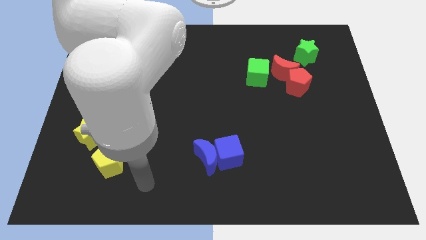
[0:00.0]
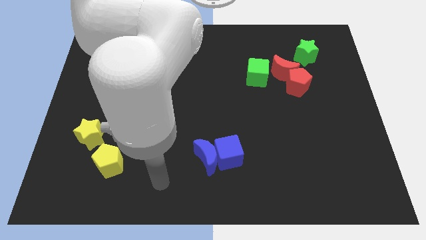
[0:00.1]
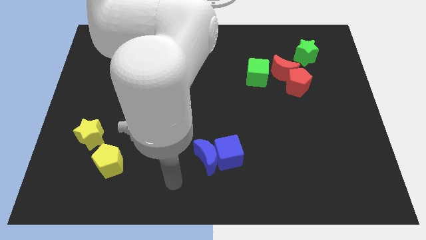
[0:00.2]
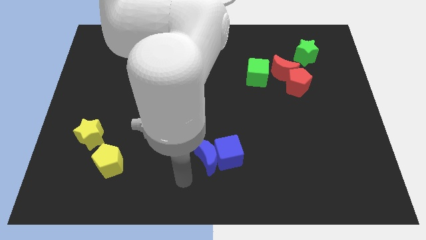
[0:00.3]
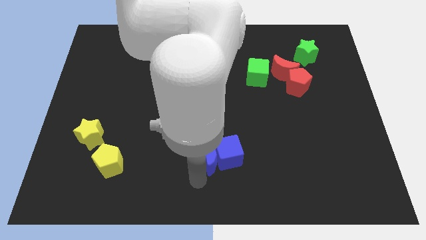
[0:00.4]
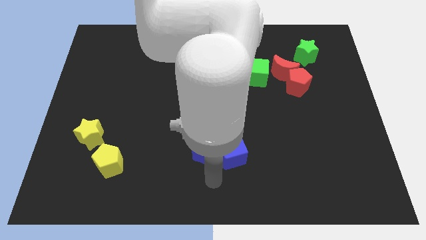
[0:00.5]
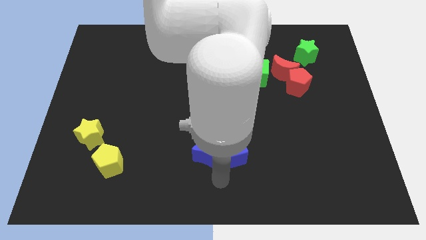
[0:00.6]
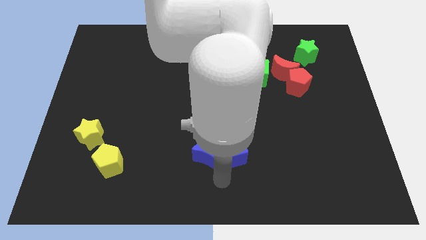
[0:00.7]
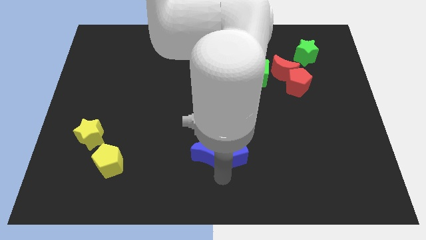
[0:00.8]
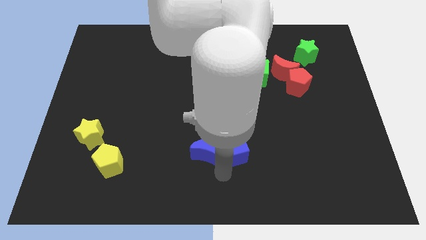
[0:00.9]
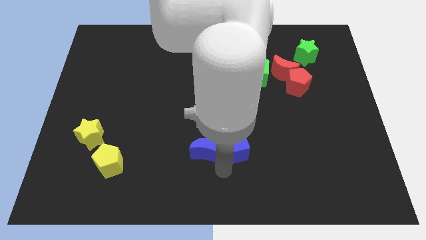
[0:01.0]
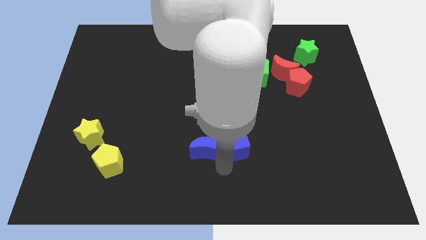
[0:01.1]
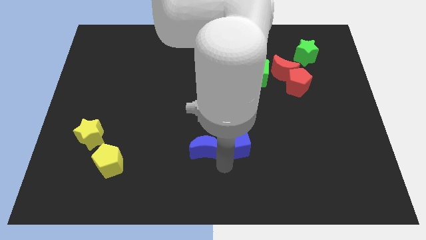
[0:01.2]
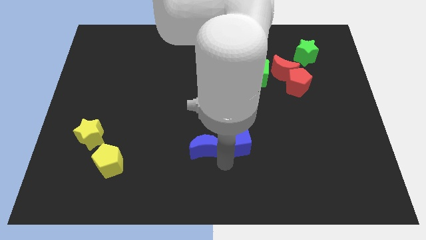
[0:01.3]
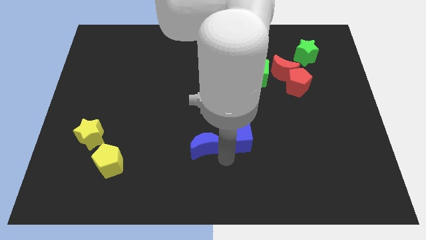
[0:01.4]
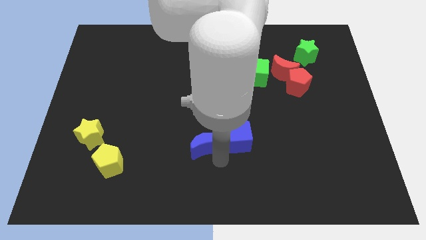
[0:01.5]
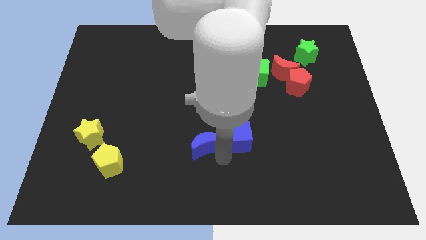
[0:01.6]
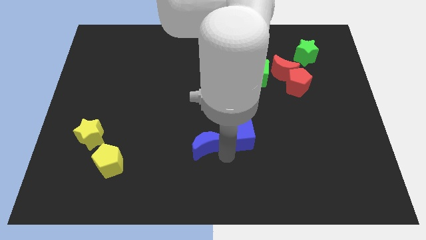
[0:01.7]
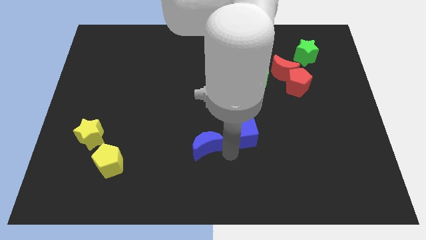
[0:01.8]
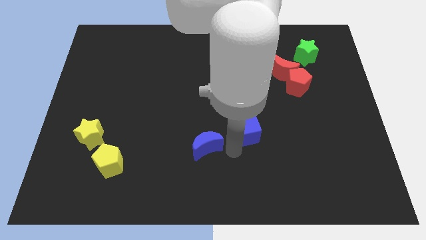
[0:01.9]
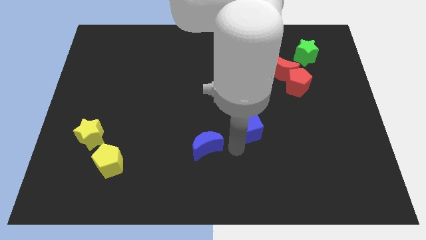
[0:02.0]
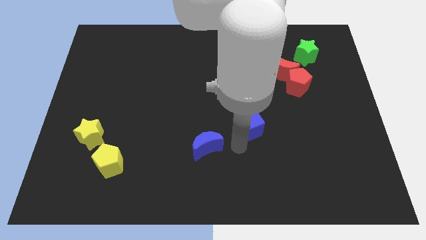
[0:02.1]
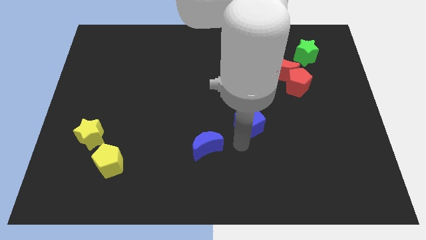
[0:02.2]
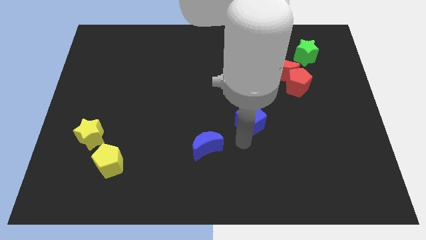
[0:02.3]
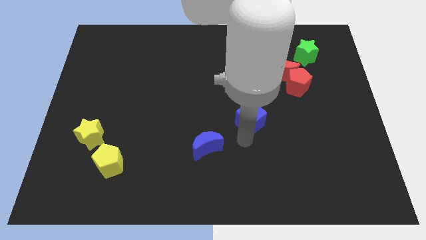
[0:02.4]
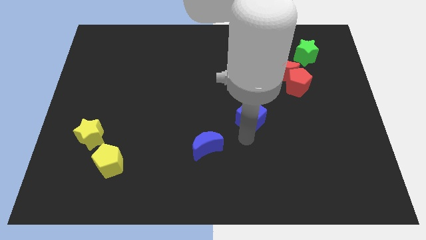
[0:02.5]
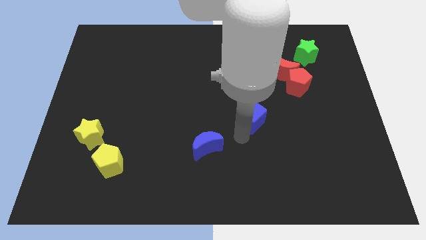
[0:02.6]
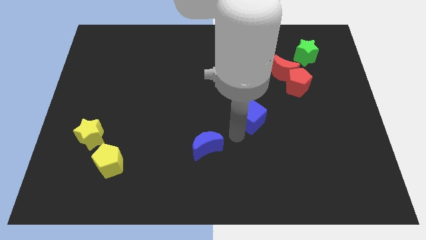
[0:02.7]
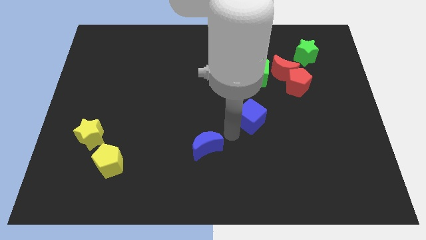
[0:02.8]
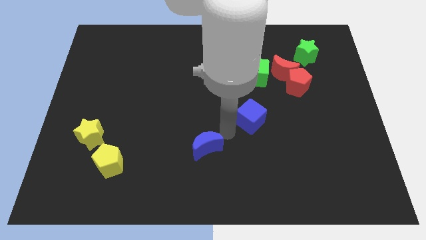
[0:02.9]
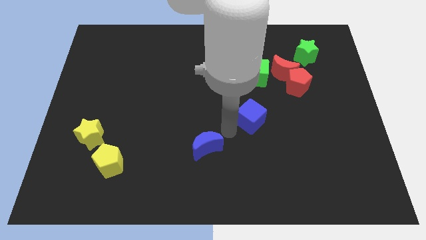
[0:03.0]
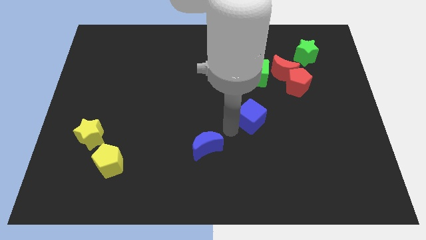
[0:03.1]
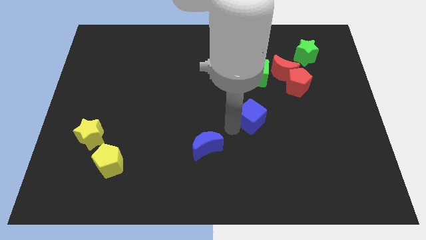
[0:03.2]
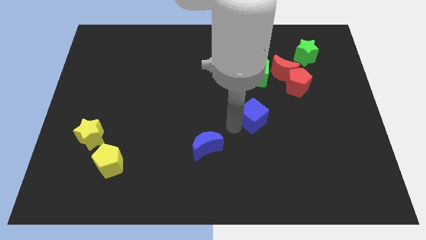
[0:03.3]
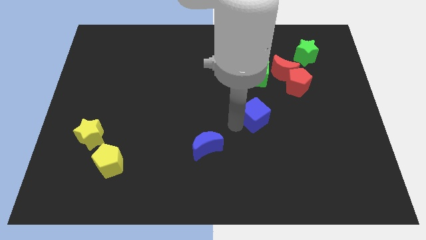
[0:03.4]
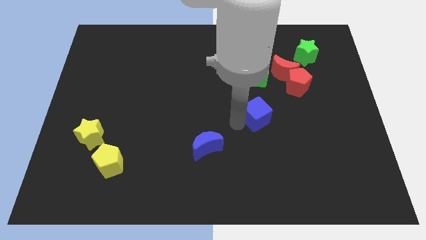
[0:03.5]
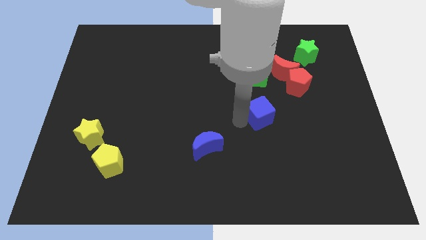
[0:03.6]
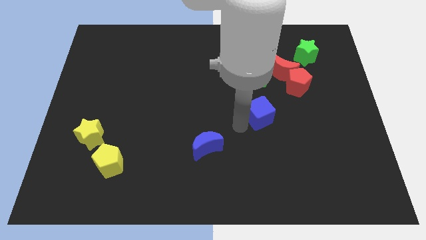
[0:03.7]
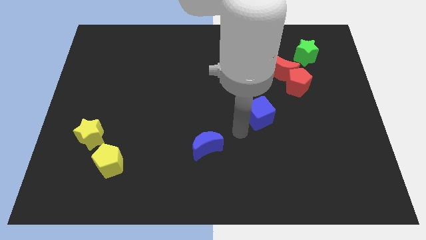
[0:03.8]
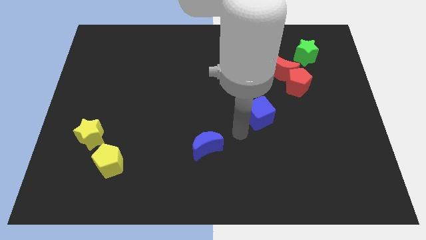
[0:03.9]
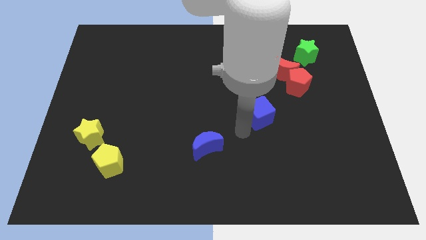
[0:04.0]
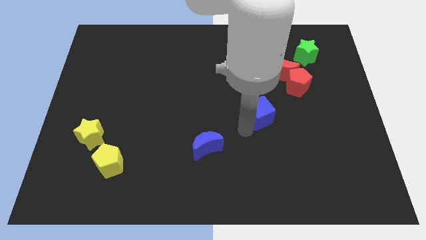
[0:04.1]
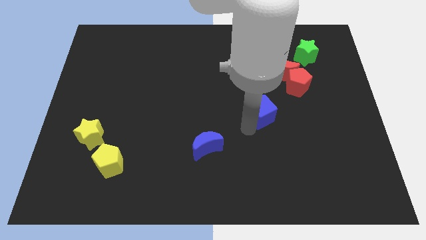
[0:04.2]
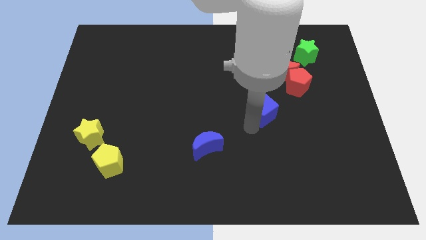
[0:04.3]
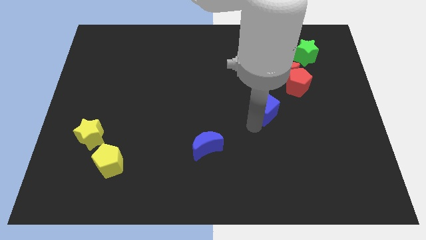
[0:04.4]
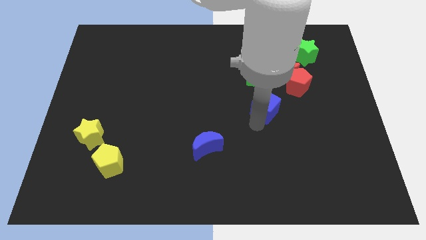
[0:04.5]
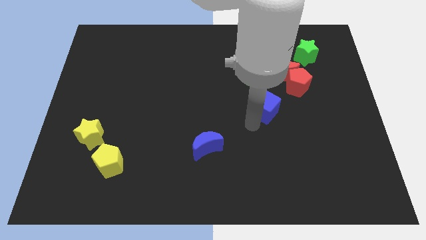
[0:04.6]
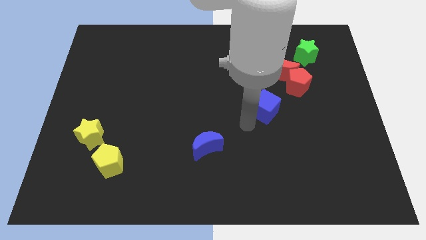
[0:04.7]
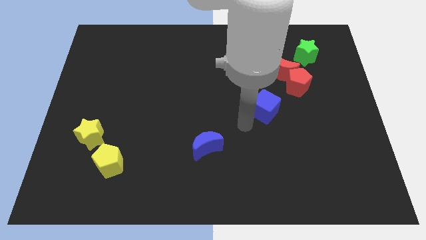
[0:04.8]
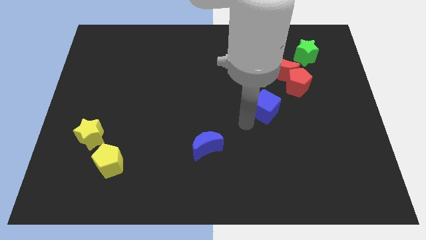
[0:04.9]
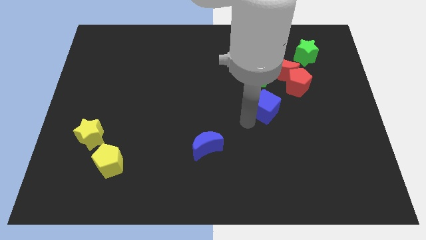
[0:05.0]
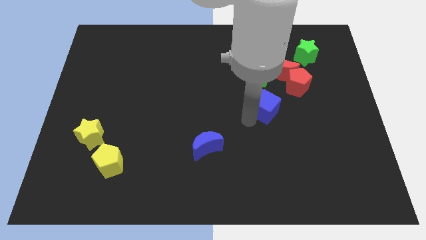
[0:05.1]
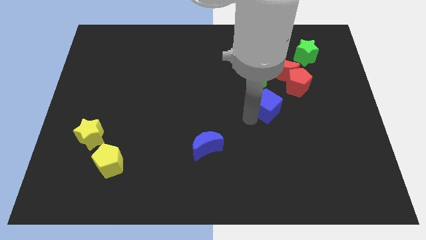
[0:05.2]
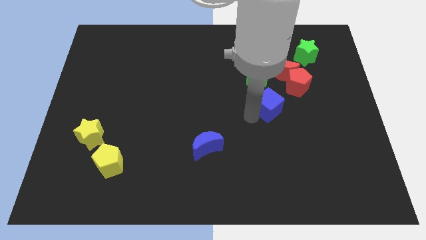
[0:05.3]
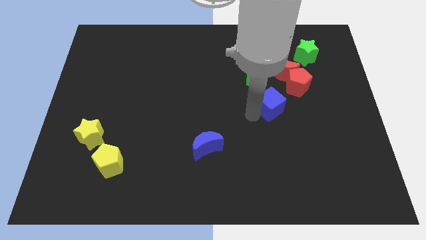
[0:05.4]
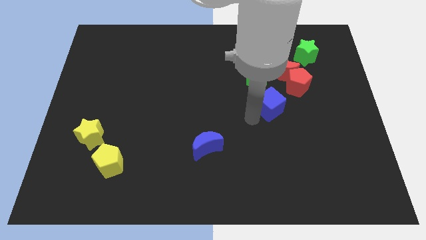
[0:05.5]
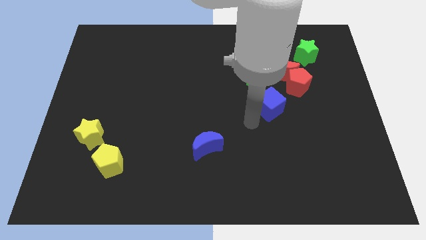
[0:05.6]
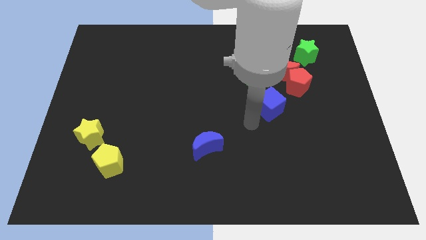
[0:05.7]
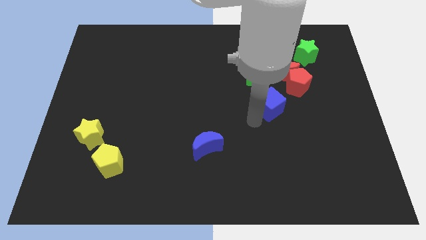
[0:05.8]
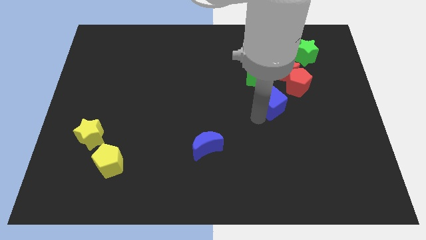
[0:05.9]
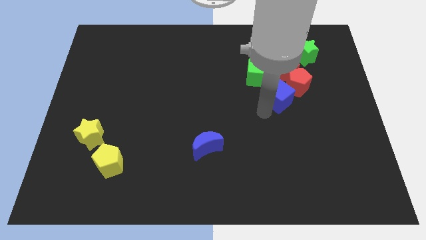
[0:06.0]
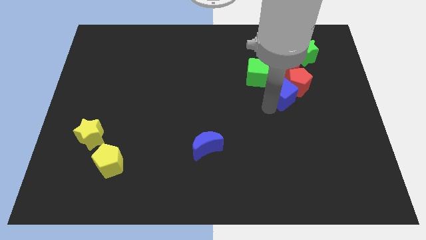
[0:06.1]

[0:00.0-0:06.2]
put the blue cube towards the red pentagon

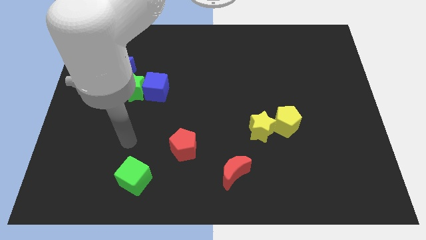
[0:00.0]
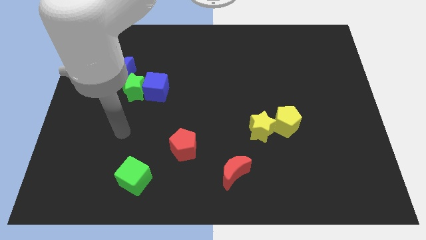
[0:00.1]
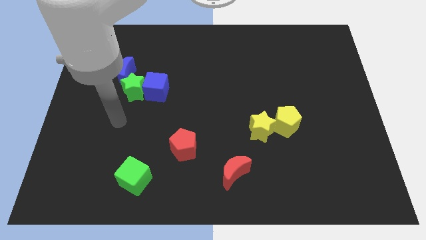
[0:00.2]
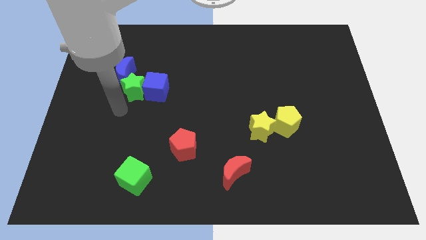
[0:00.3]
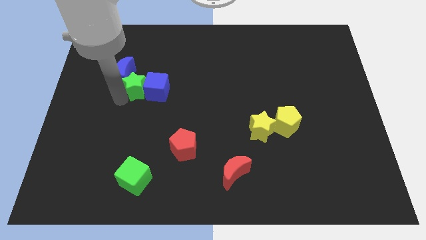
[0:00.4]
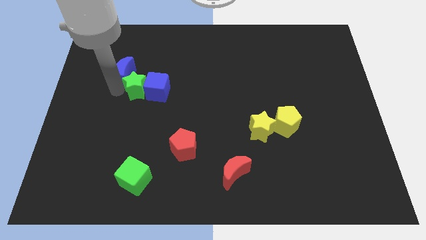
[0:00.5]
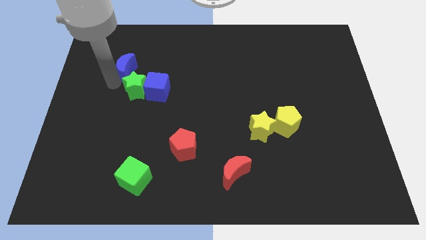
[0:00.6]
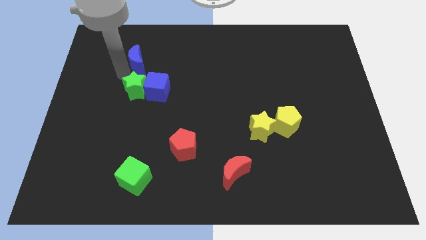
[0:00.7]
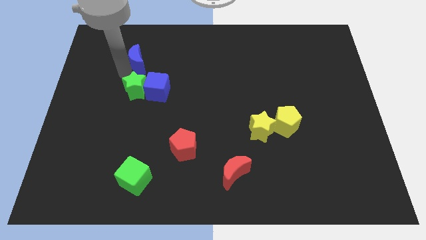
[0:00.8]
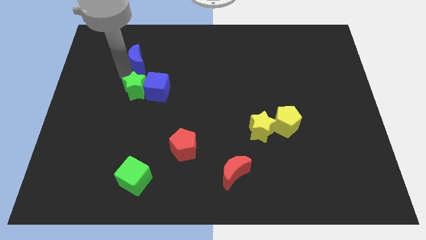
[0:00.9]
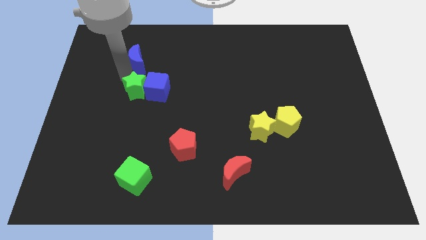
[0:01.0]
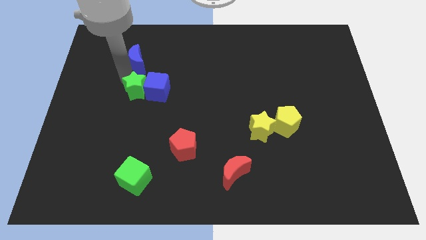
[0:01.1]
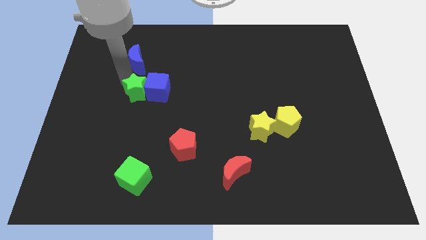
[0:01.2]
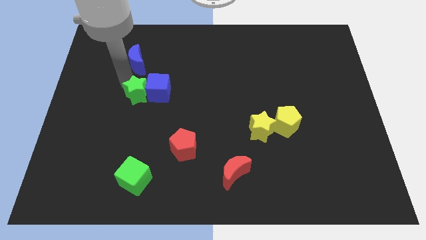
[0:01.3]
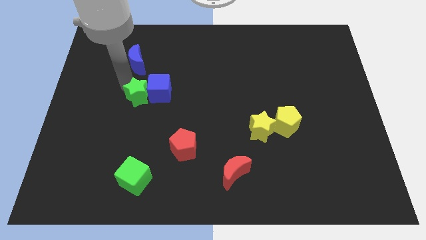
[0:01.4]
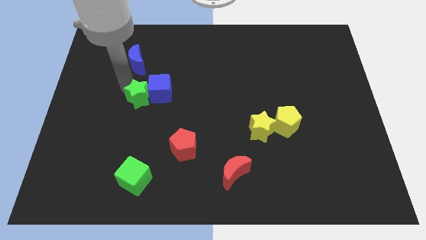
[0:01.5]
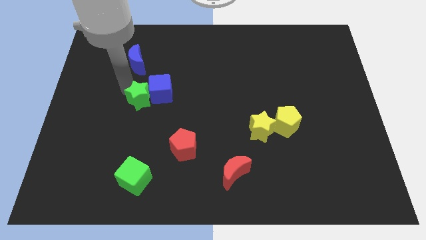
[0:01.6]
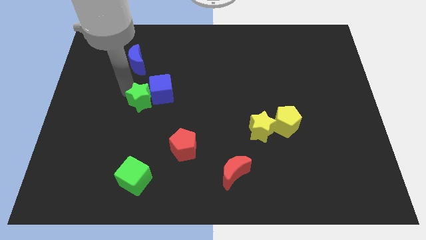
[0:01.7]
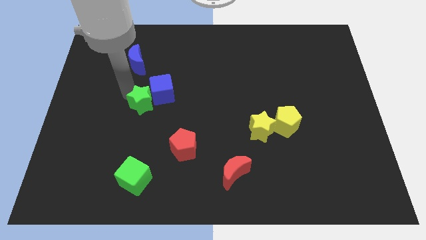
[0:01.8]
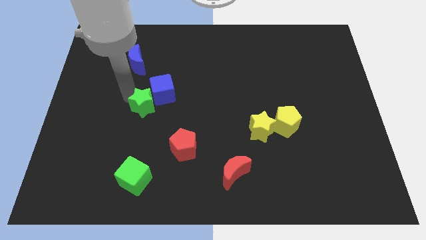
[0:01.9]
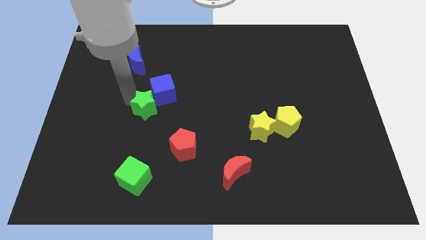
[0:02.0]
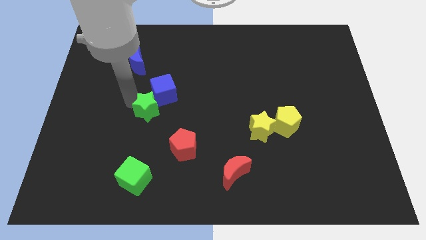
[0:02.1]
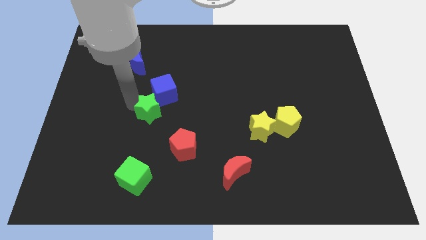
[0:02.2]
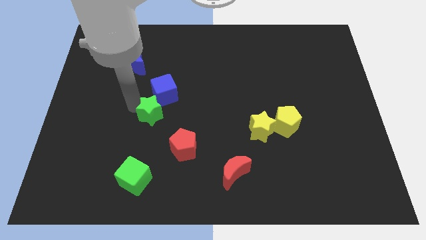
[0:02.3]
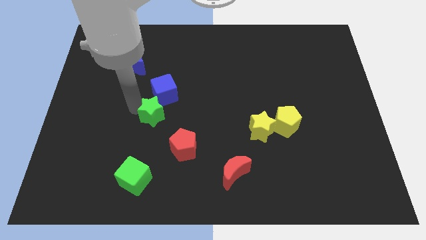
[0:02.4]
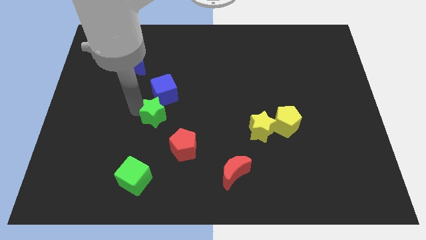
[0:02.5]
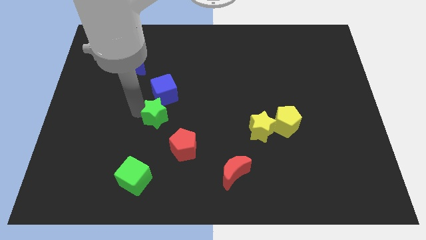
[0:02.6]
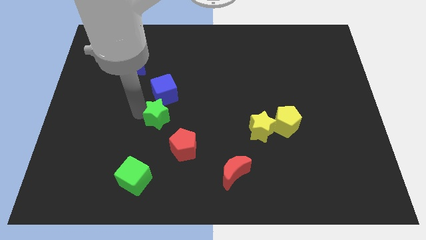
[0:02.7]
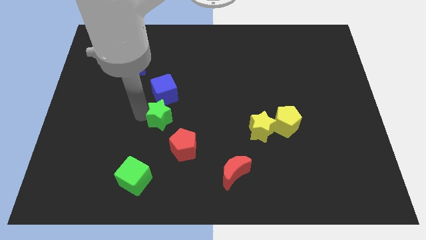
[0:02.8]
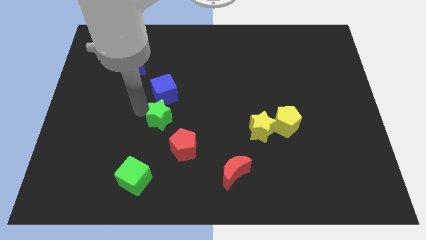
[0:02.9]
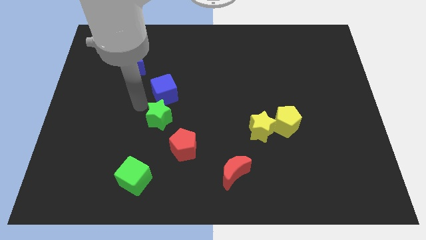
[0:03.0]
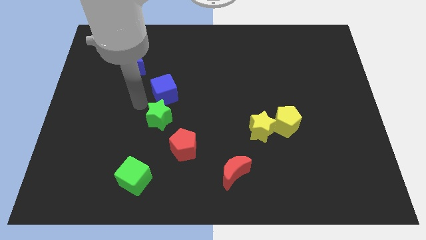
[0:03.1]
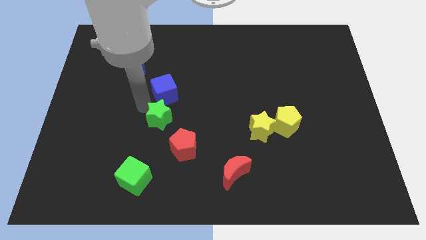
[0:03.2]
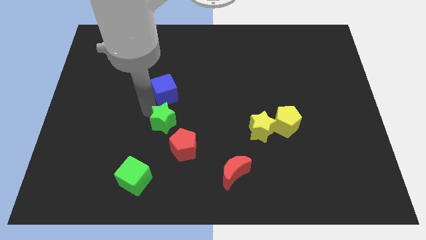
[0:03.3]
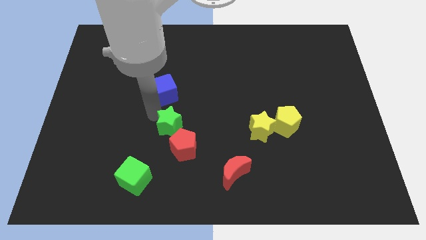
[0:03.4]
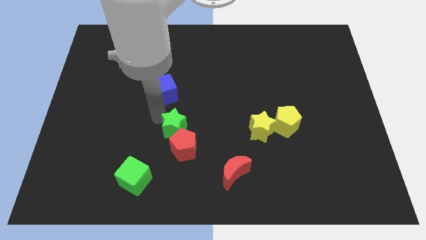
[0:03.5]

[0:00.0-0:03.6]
move the green star next to the red pentagon
